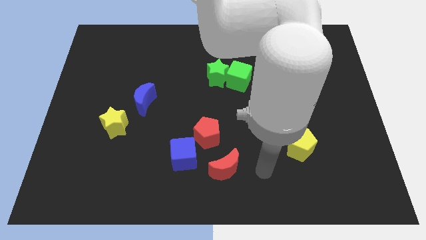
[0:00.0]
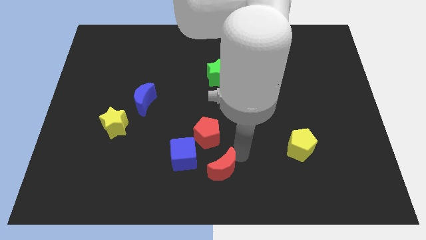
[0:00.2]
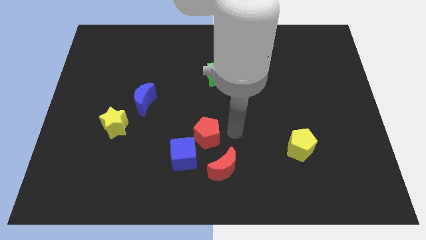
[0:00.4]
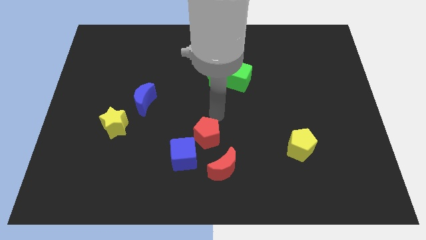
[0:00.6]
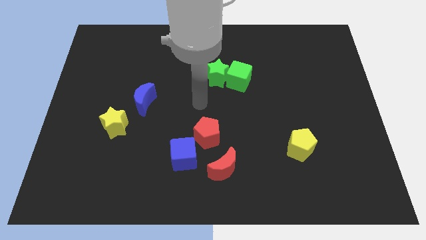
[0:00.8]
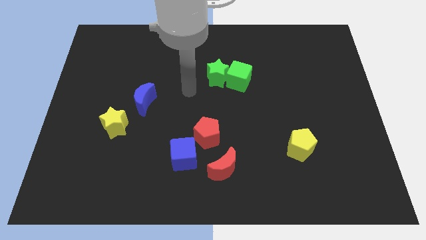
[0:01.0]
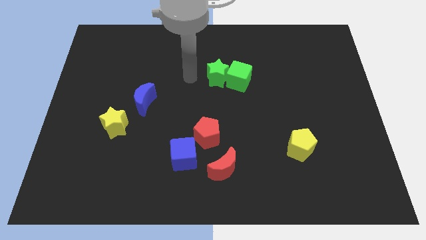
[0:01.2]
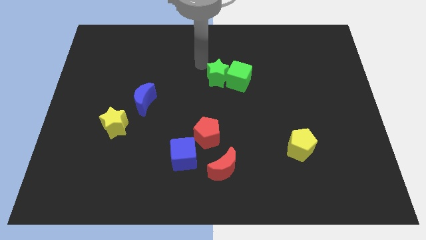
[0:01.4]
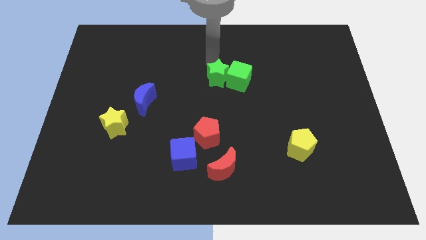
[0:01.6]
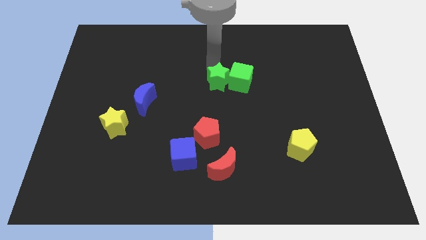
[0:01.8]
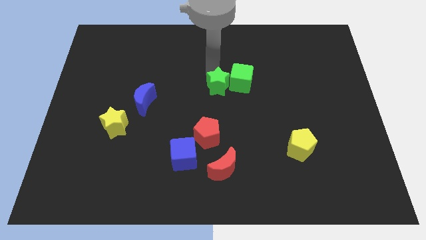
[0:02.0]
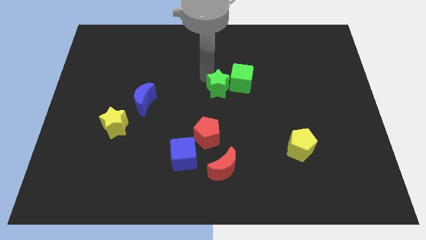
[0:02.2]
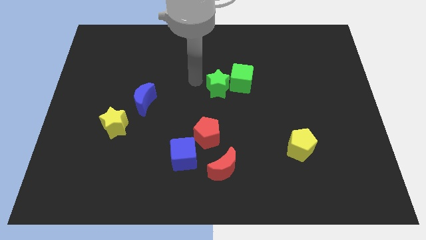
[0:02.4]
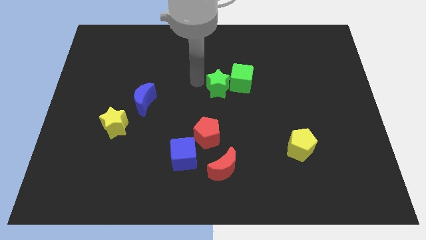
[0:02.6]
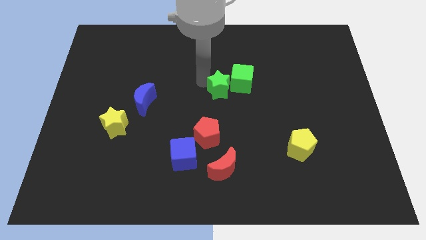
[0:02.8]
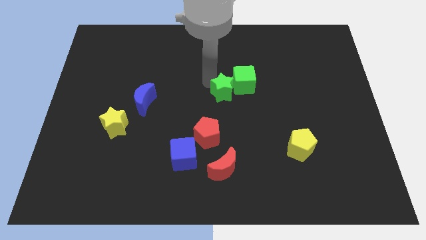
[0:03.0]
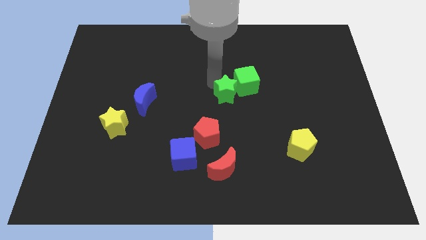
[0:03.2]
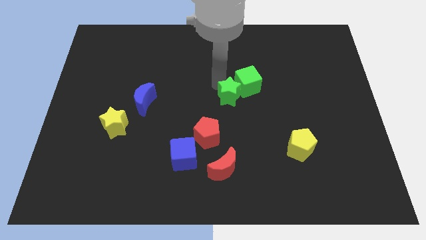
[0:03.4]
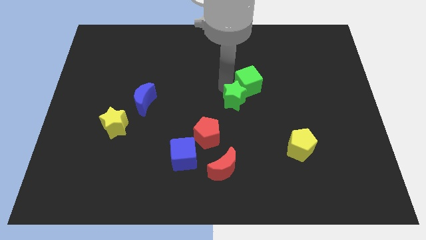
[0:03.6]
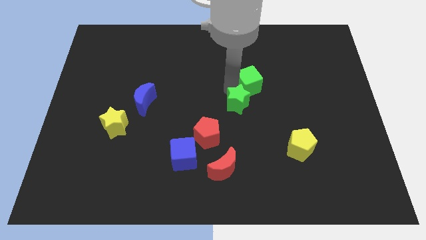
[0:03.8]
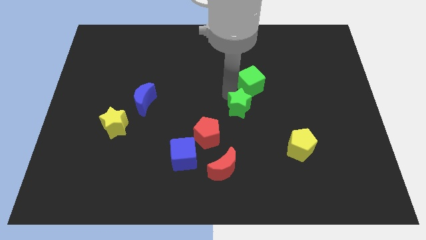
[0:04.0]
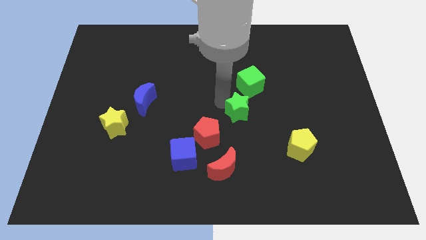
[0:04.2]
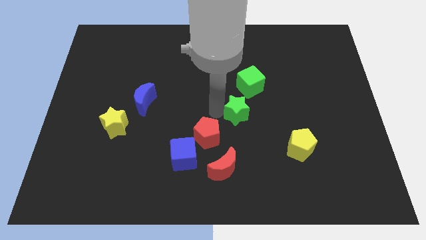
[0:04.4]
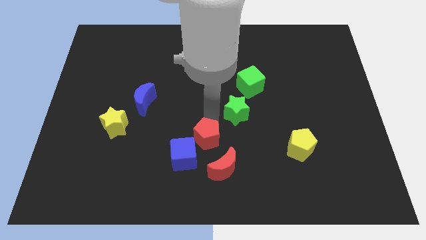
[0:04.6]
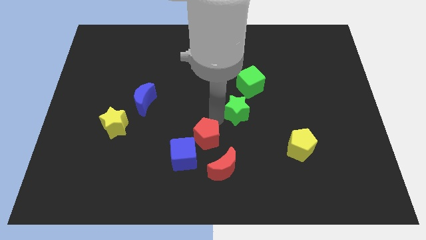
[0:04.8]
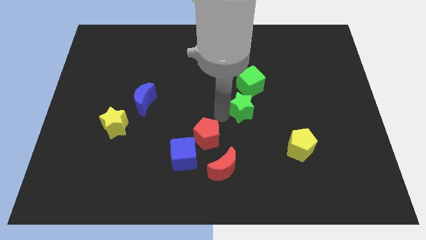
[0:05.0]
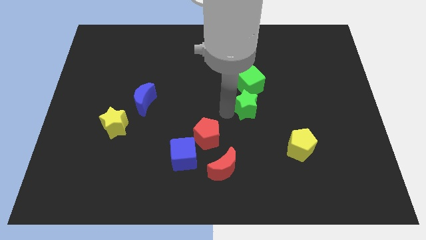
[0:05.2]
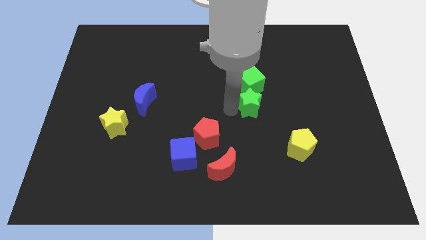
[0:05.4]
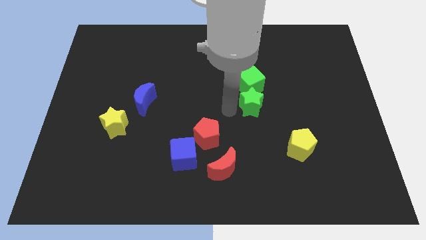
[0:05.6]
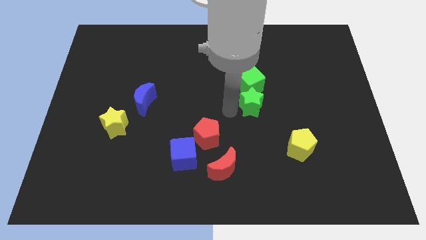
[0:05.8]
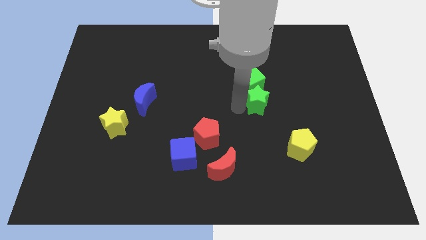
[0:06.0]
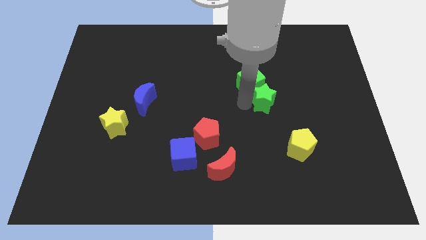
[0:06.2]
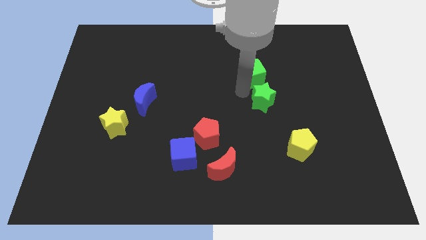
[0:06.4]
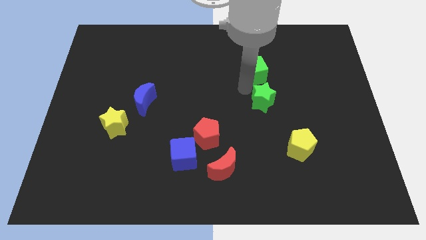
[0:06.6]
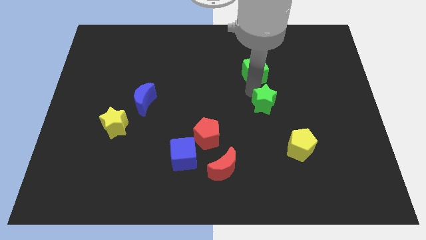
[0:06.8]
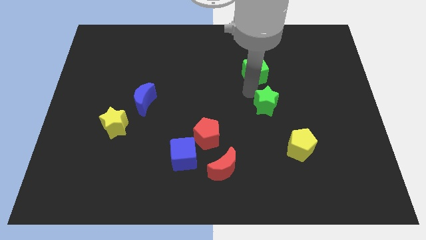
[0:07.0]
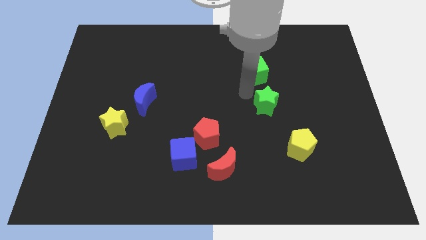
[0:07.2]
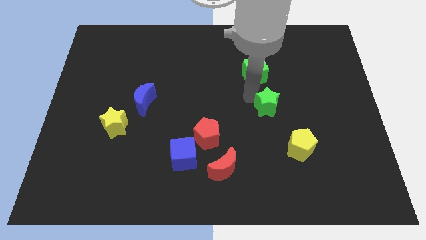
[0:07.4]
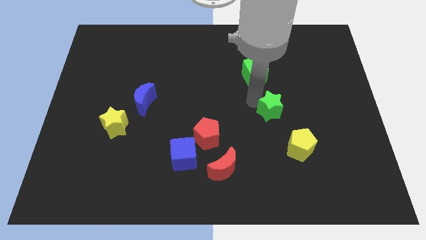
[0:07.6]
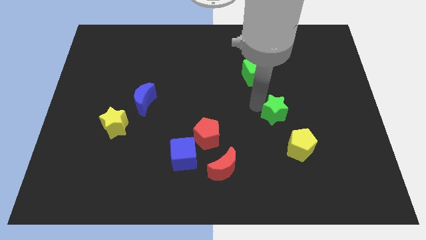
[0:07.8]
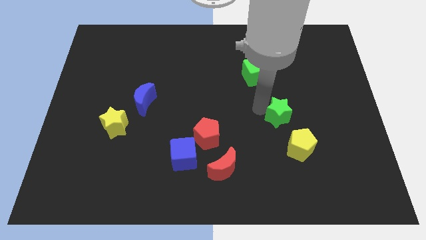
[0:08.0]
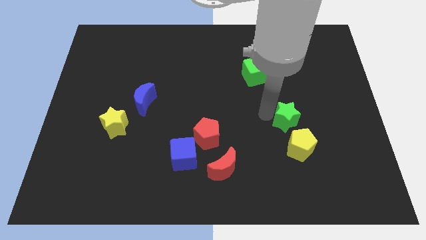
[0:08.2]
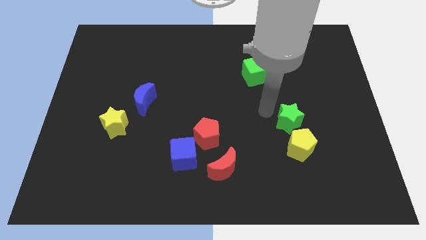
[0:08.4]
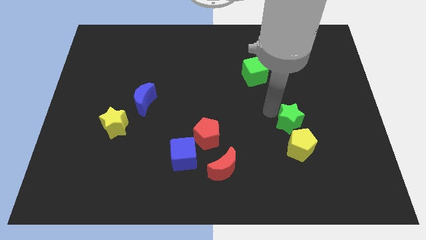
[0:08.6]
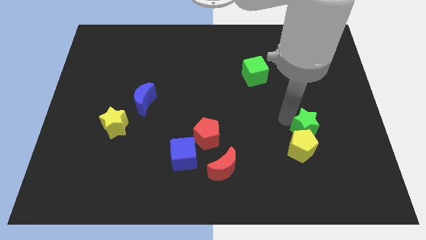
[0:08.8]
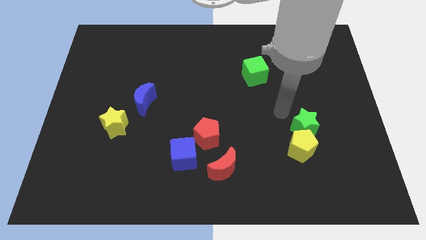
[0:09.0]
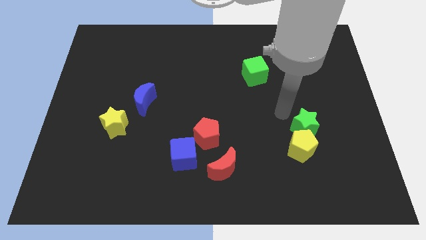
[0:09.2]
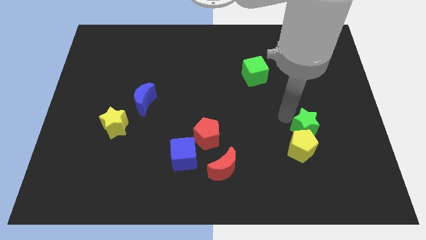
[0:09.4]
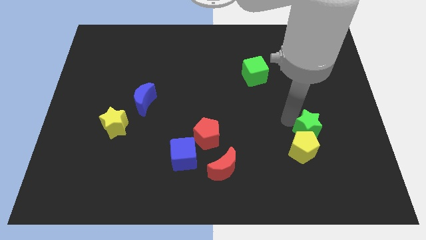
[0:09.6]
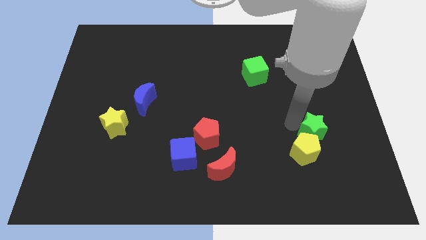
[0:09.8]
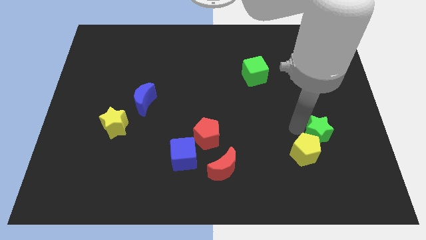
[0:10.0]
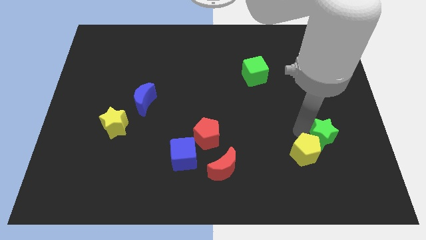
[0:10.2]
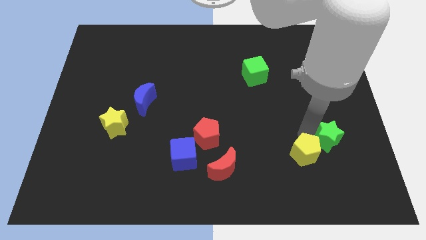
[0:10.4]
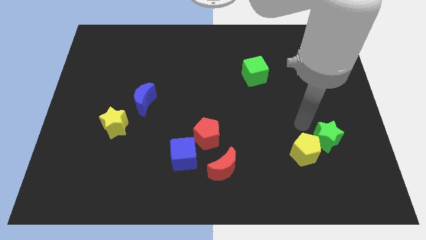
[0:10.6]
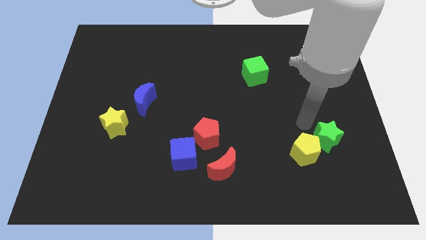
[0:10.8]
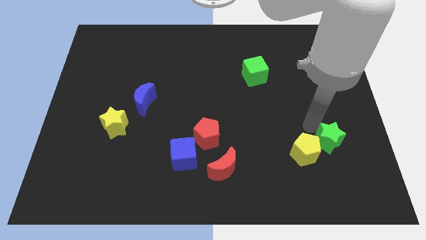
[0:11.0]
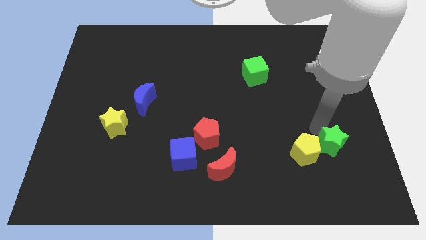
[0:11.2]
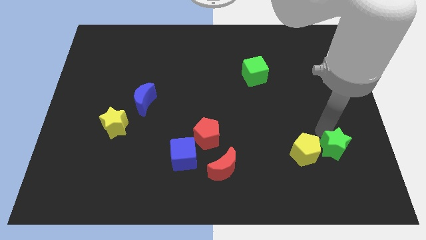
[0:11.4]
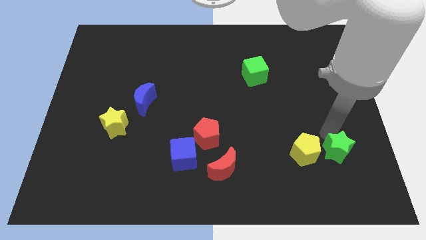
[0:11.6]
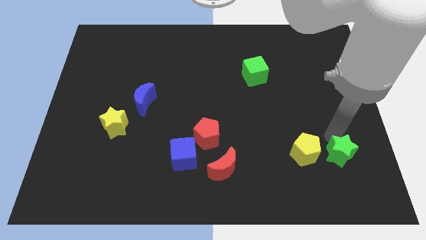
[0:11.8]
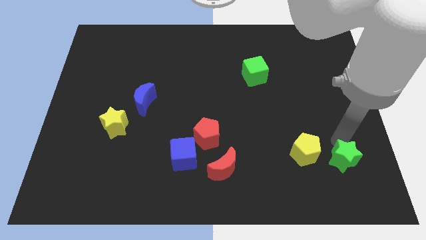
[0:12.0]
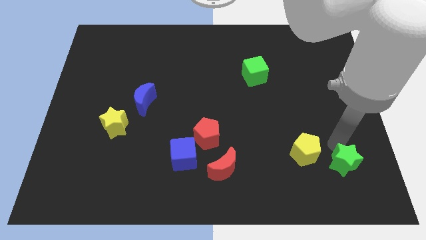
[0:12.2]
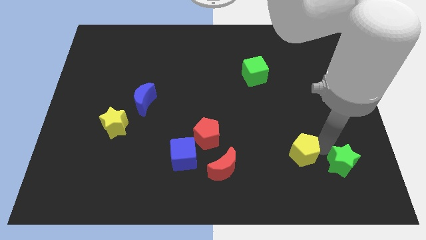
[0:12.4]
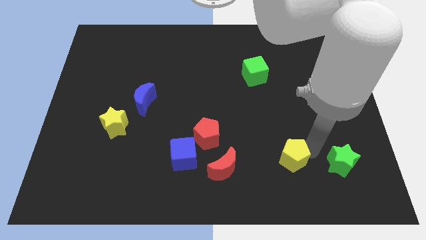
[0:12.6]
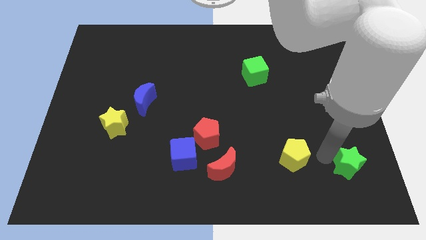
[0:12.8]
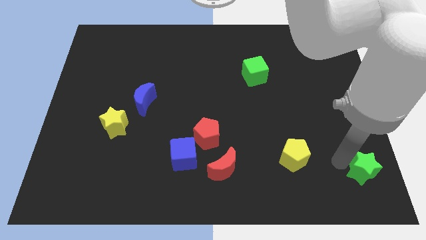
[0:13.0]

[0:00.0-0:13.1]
move the green star to the bottom right corner
